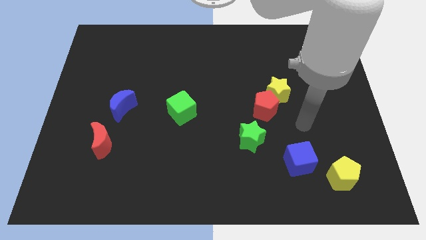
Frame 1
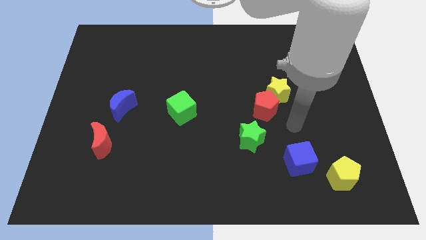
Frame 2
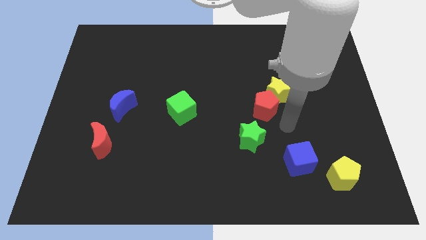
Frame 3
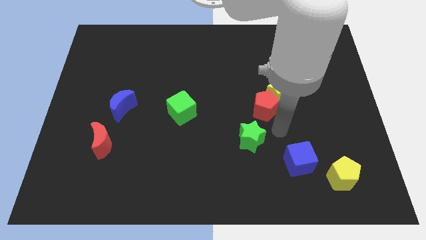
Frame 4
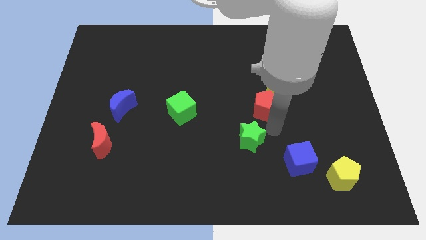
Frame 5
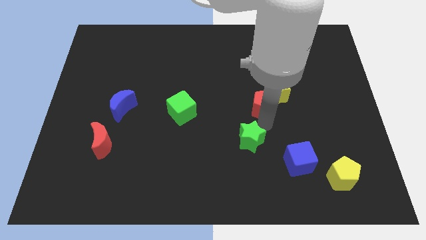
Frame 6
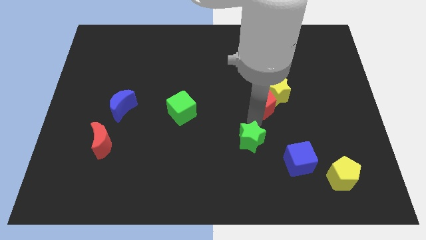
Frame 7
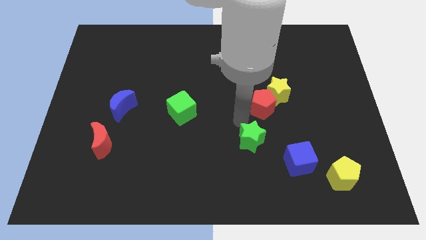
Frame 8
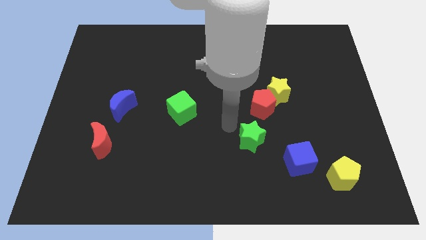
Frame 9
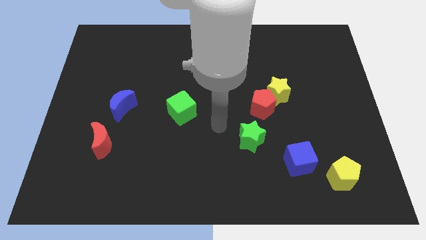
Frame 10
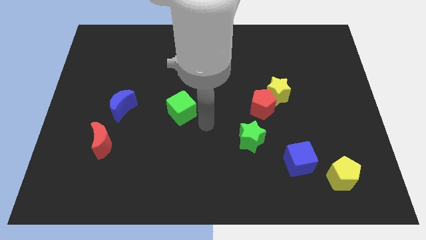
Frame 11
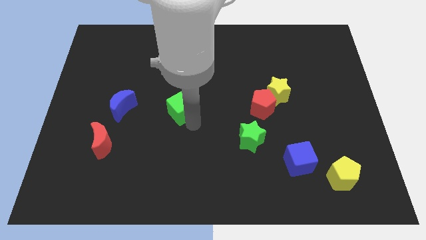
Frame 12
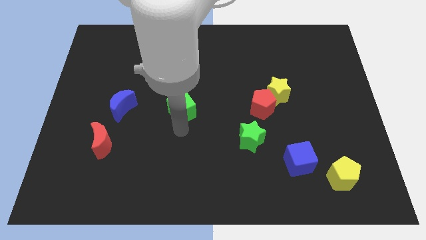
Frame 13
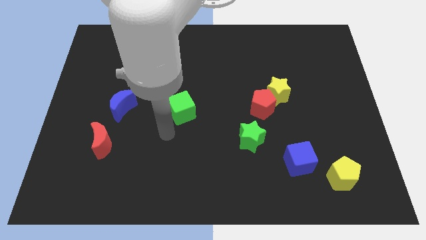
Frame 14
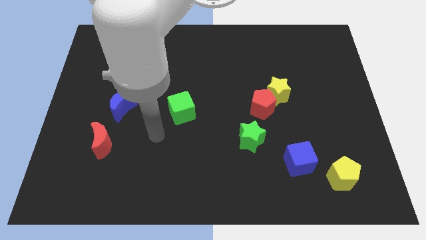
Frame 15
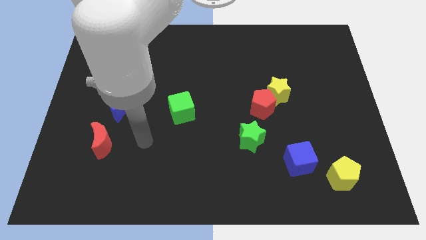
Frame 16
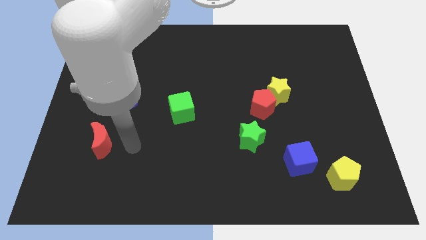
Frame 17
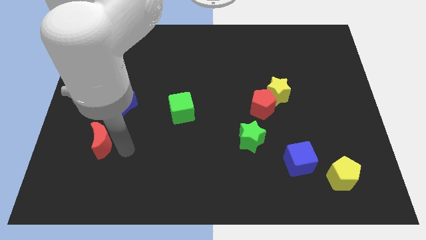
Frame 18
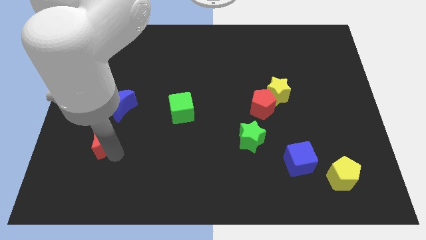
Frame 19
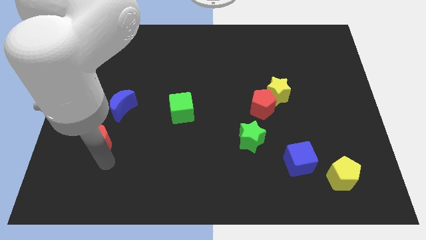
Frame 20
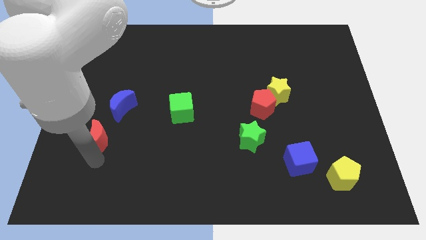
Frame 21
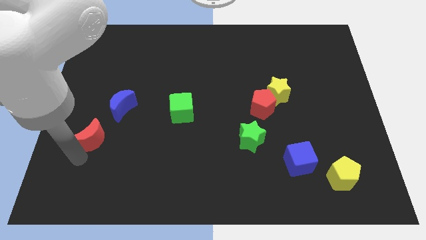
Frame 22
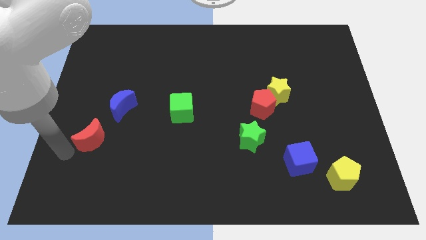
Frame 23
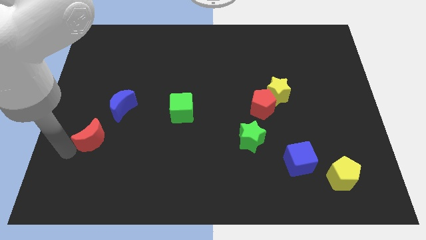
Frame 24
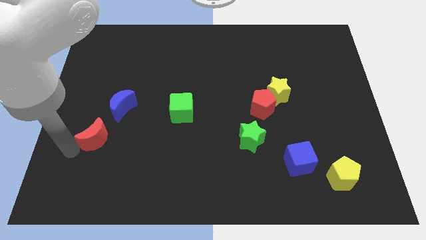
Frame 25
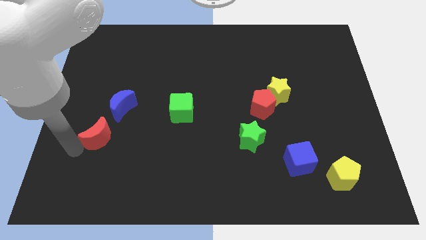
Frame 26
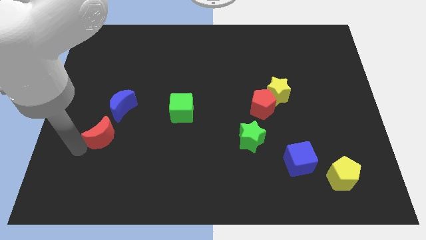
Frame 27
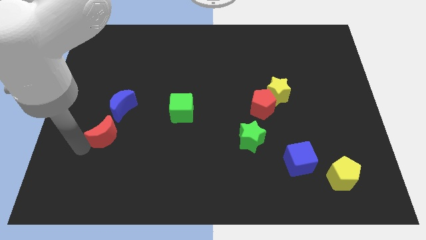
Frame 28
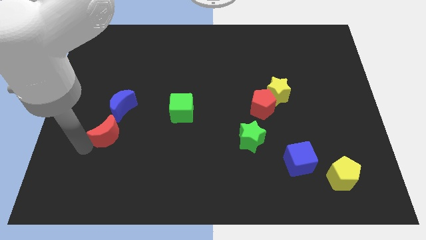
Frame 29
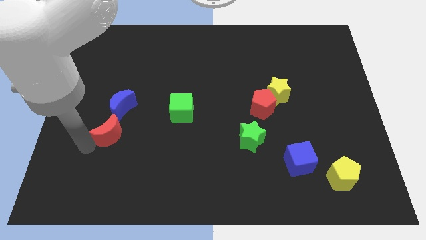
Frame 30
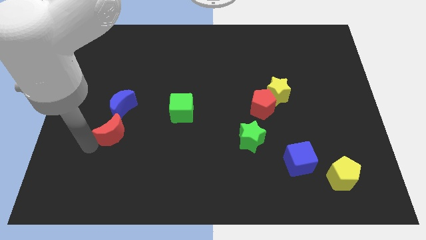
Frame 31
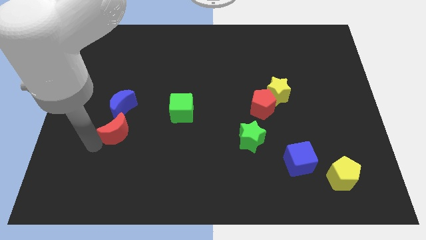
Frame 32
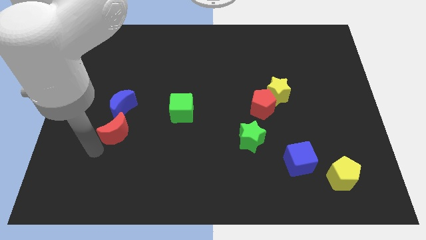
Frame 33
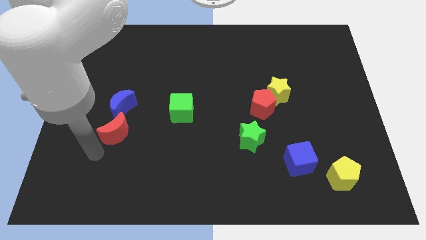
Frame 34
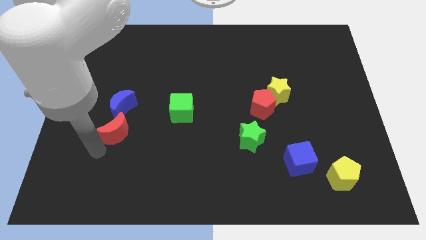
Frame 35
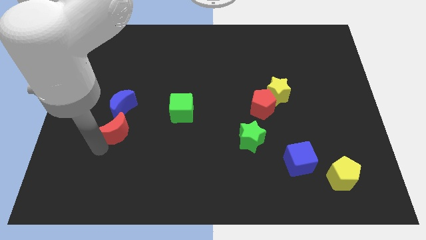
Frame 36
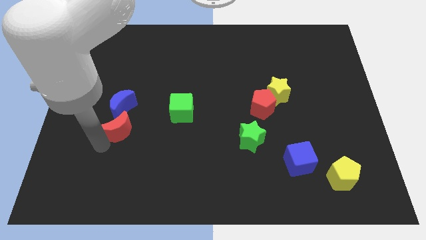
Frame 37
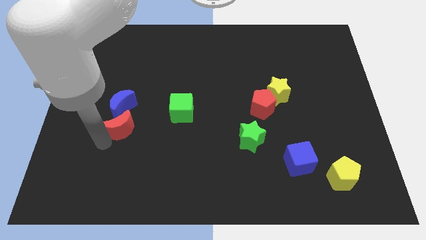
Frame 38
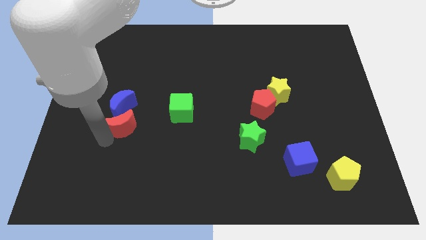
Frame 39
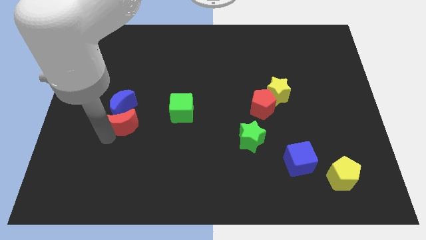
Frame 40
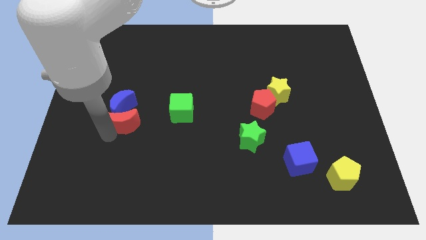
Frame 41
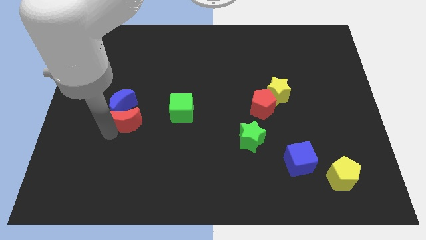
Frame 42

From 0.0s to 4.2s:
slide the red moon slightly up and to the right diagonally

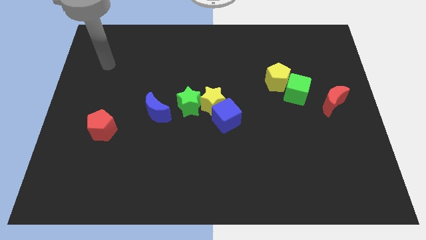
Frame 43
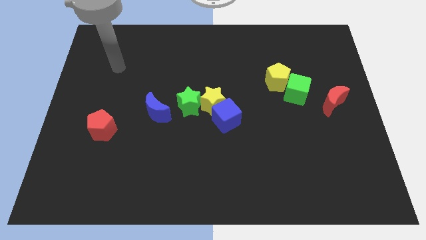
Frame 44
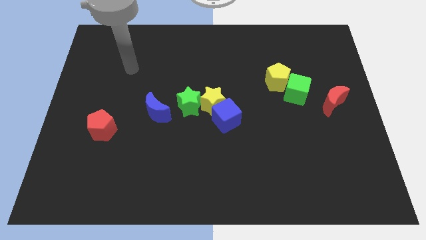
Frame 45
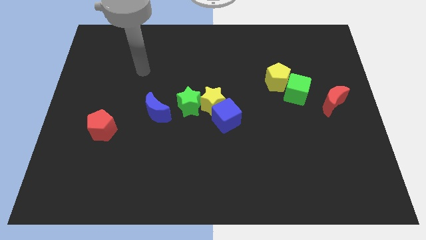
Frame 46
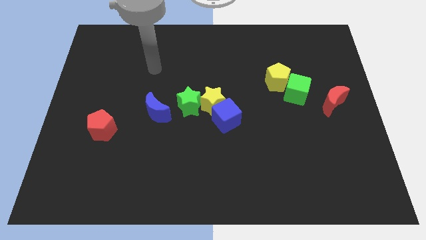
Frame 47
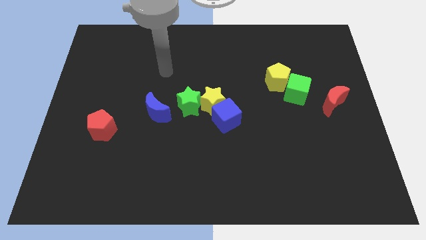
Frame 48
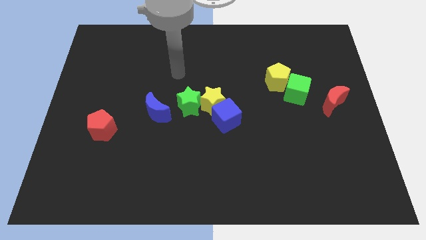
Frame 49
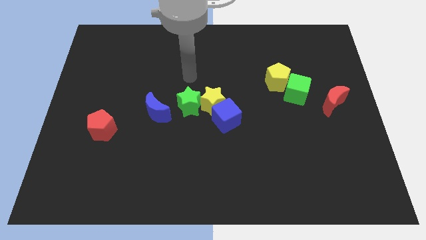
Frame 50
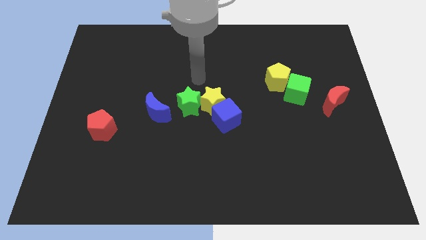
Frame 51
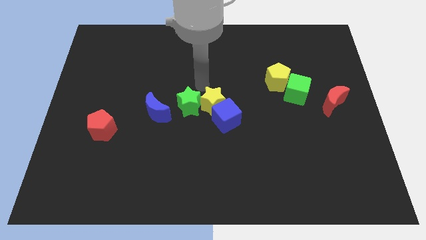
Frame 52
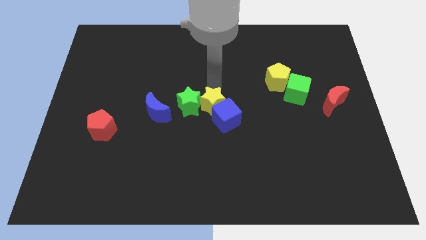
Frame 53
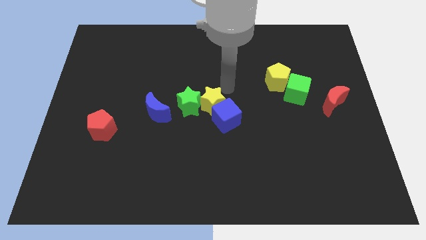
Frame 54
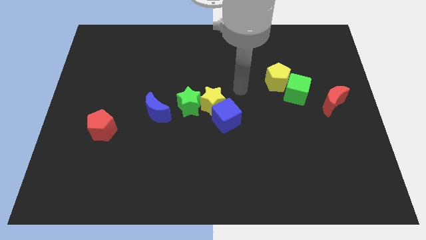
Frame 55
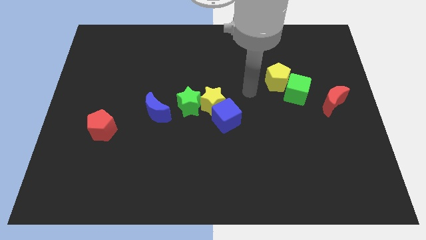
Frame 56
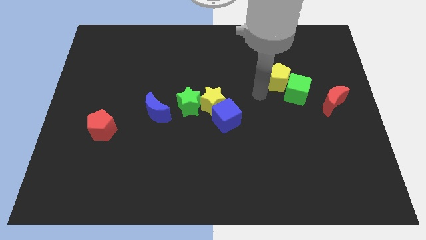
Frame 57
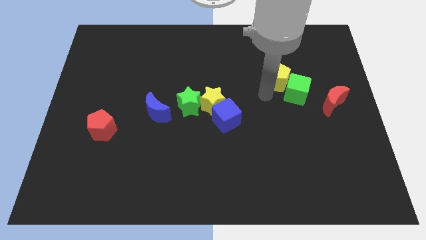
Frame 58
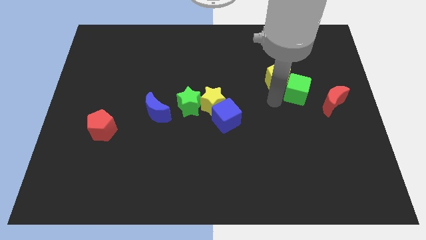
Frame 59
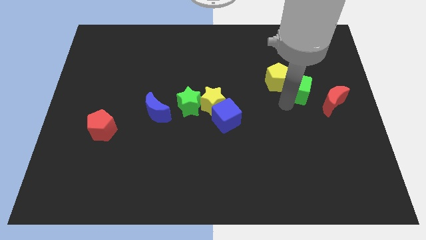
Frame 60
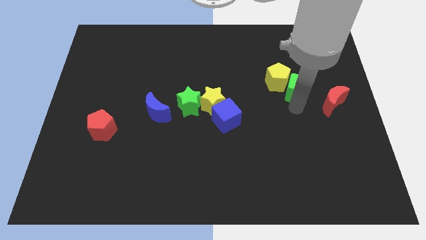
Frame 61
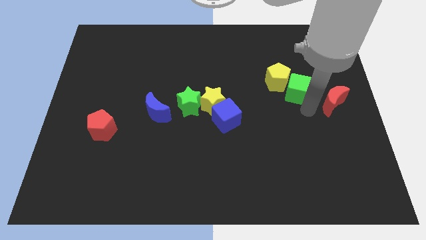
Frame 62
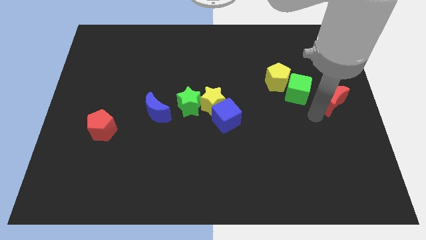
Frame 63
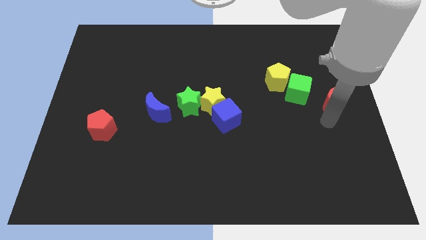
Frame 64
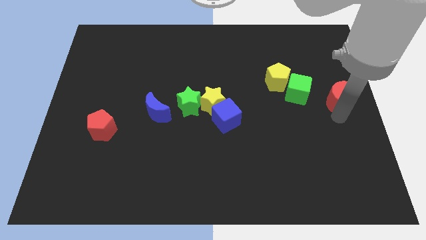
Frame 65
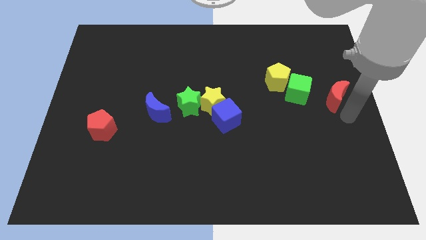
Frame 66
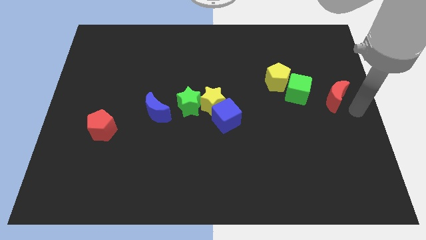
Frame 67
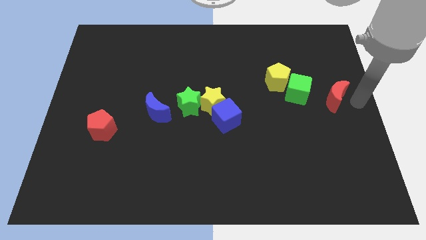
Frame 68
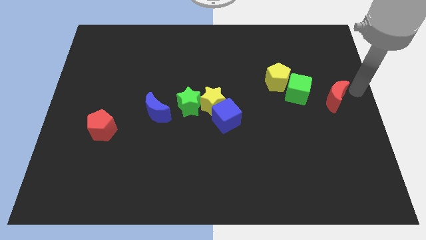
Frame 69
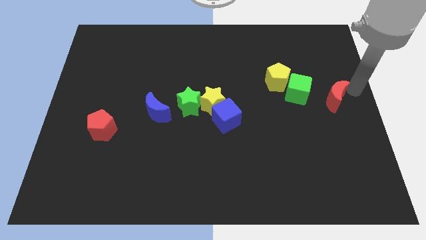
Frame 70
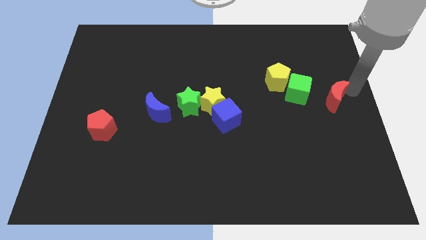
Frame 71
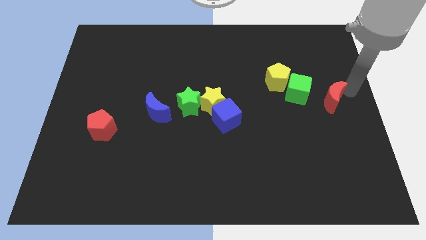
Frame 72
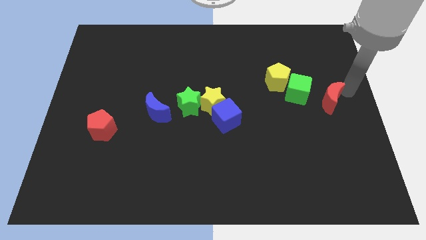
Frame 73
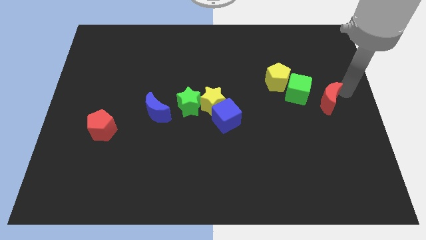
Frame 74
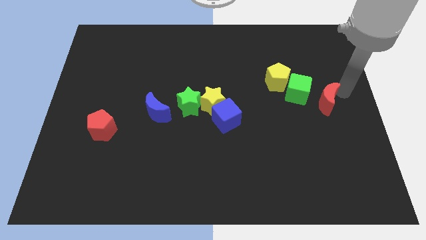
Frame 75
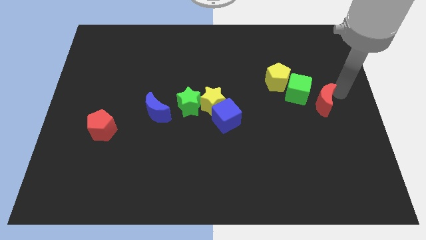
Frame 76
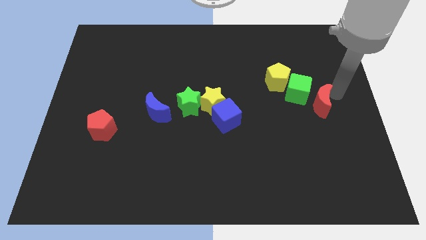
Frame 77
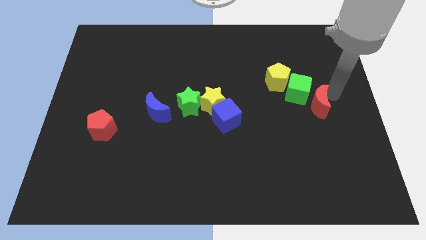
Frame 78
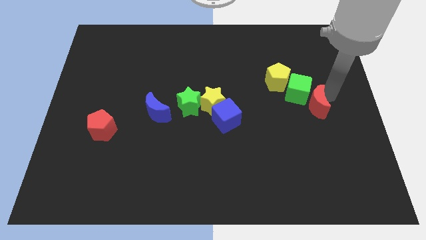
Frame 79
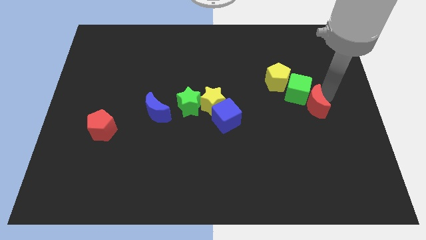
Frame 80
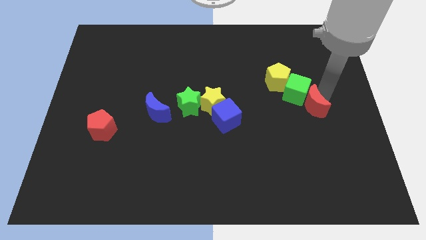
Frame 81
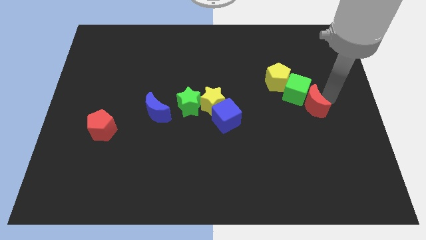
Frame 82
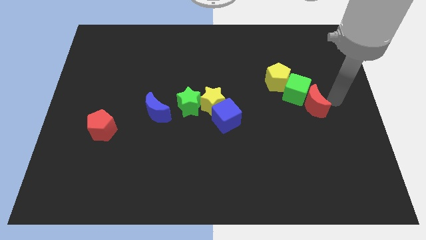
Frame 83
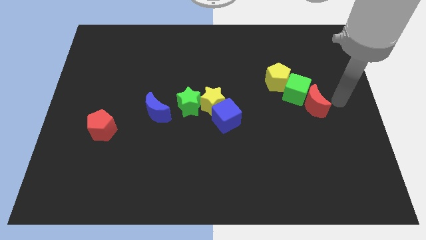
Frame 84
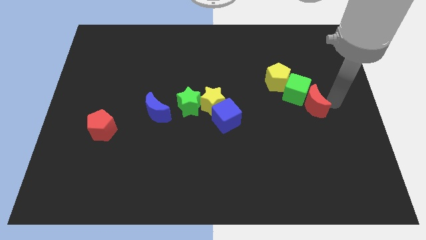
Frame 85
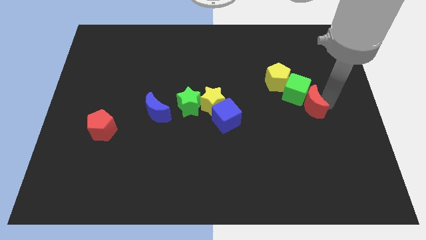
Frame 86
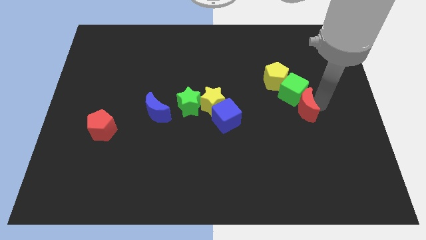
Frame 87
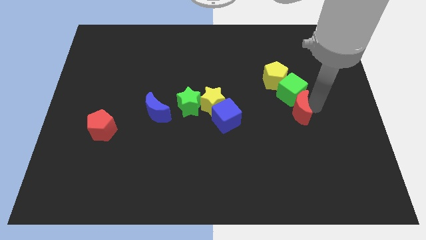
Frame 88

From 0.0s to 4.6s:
move the red moon somewhat left
